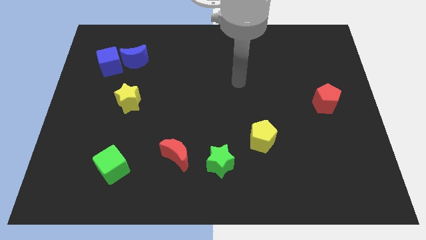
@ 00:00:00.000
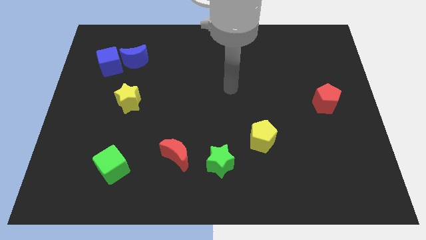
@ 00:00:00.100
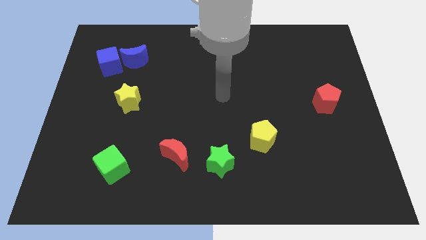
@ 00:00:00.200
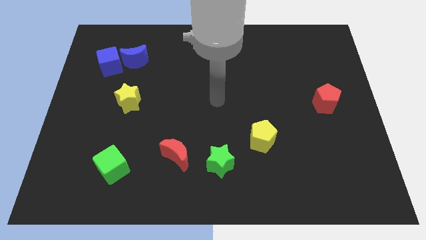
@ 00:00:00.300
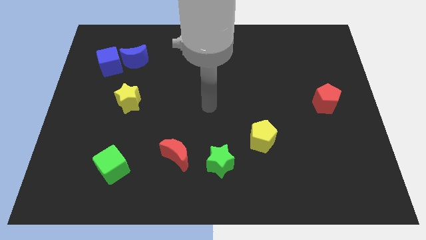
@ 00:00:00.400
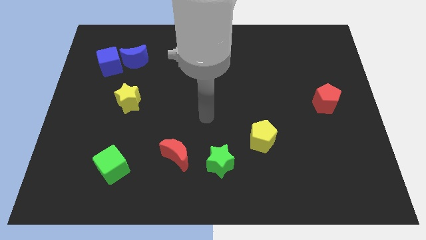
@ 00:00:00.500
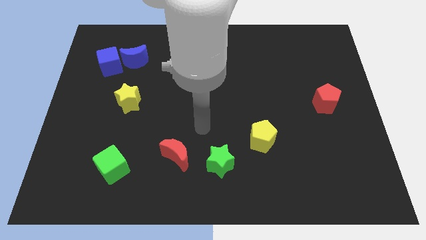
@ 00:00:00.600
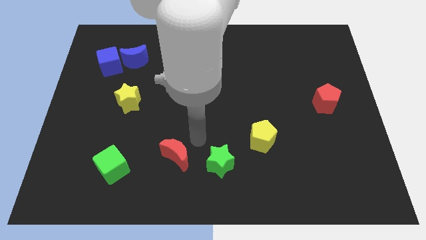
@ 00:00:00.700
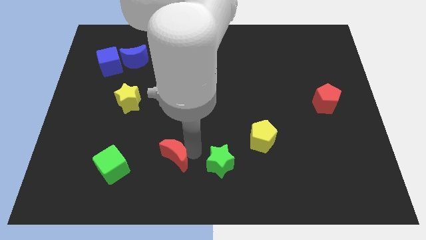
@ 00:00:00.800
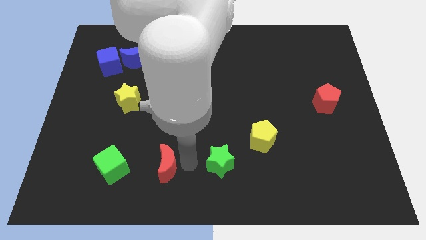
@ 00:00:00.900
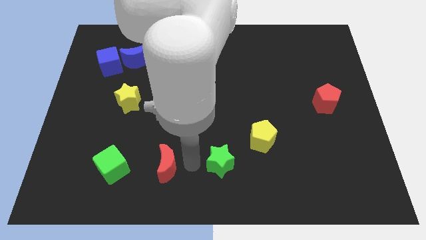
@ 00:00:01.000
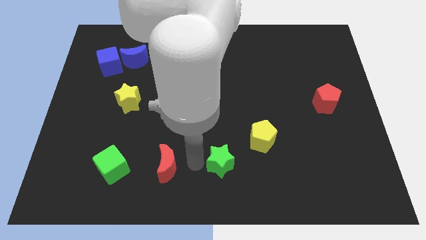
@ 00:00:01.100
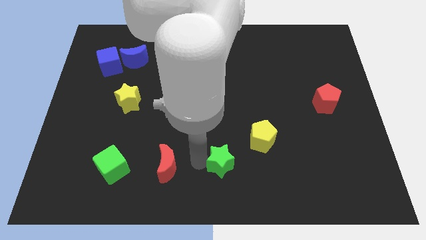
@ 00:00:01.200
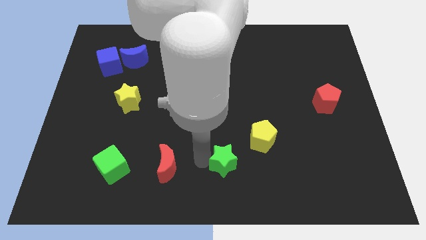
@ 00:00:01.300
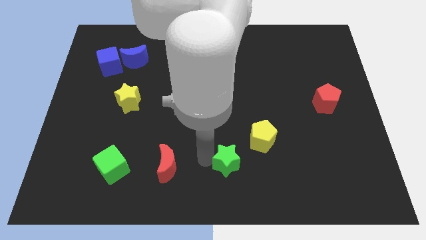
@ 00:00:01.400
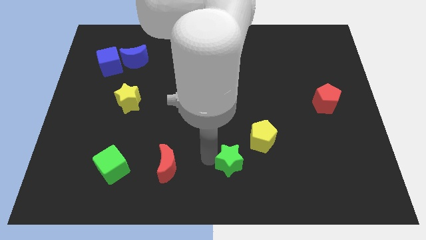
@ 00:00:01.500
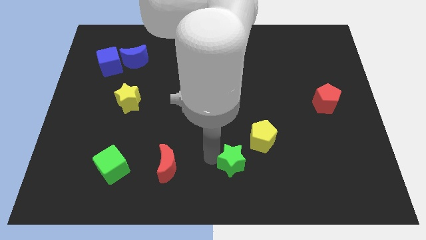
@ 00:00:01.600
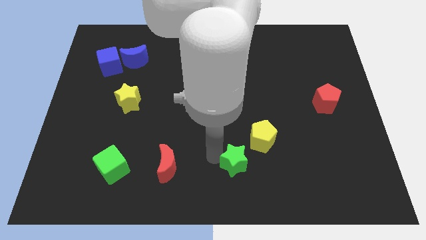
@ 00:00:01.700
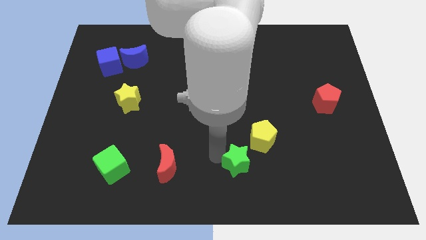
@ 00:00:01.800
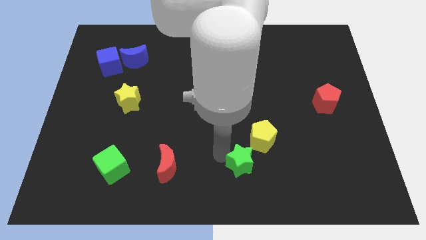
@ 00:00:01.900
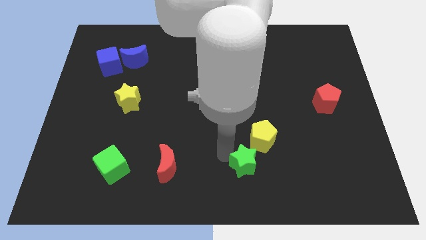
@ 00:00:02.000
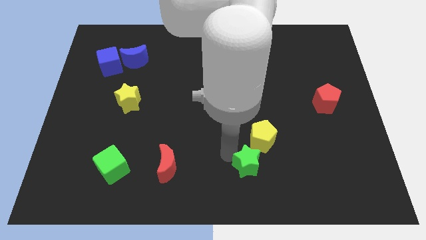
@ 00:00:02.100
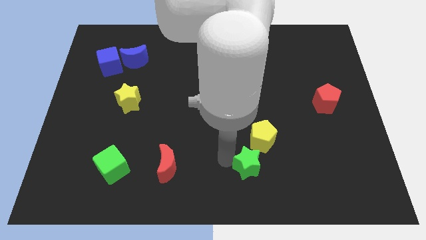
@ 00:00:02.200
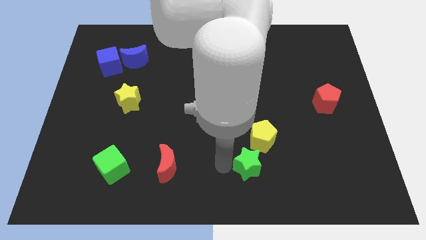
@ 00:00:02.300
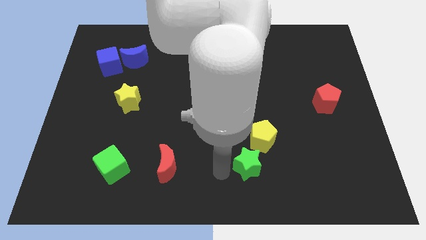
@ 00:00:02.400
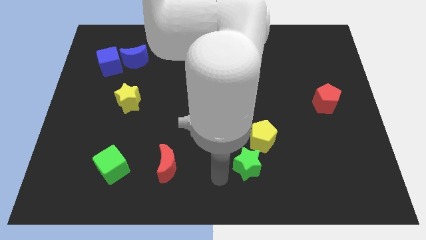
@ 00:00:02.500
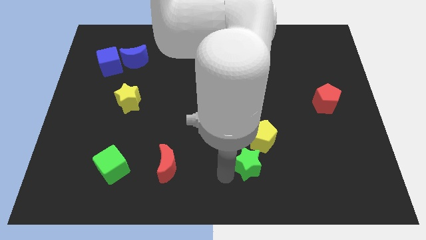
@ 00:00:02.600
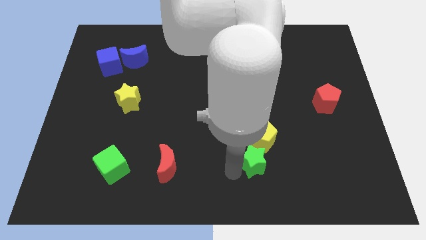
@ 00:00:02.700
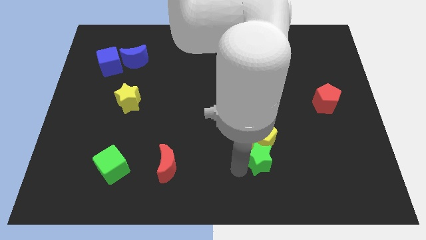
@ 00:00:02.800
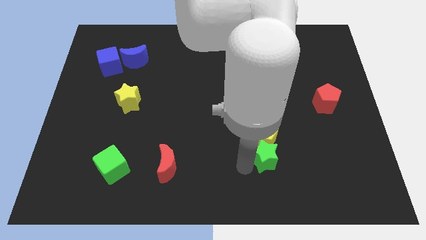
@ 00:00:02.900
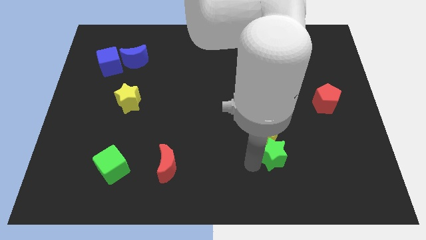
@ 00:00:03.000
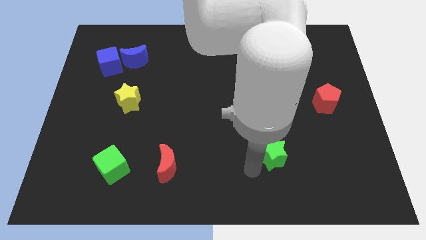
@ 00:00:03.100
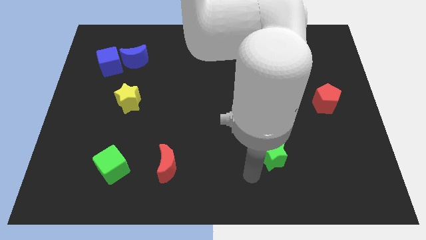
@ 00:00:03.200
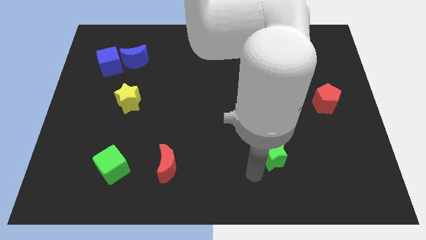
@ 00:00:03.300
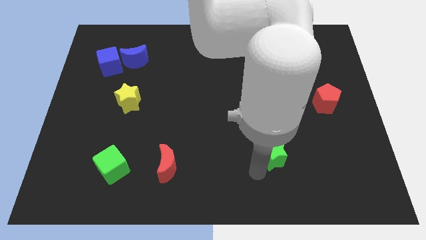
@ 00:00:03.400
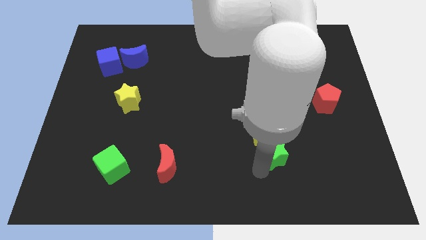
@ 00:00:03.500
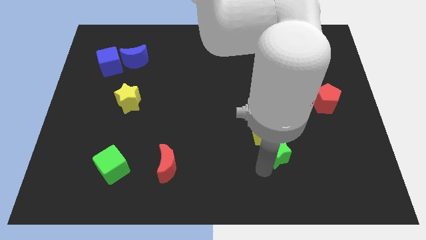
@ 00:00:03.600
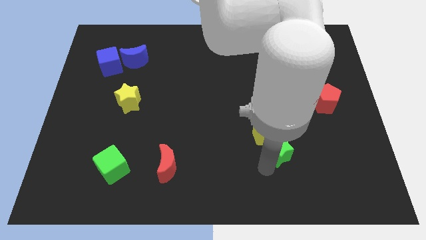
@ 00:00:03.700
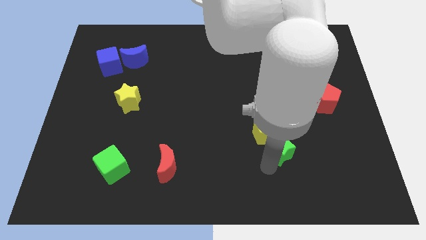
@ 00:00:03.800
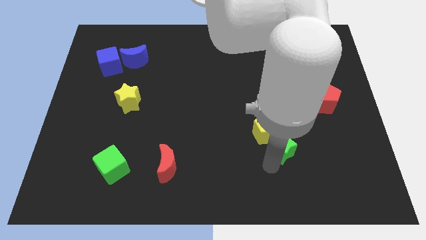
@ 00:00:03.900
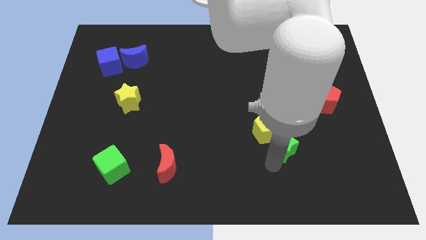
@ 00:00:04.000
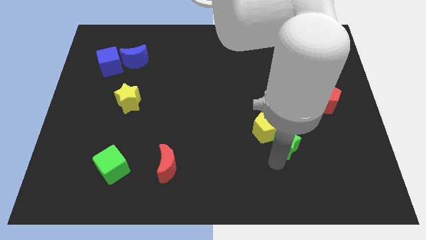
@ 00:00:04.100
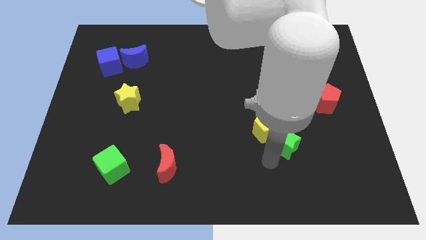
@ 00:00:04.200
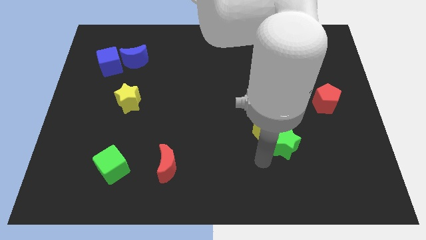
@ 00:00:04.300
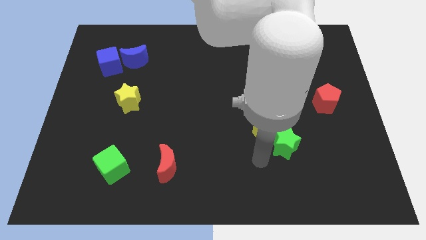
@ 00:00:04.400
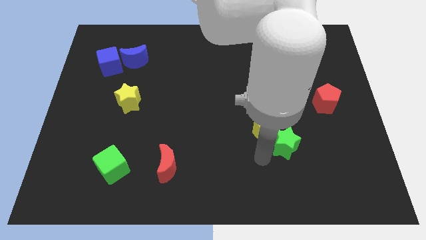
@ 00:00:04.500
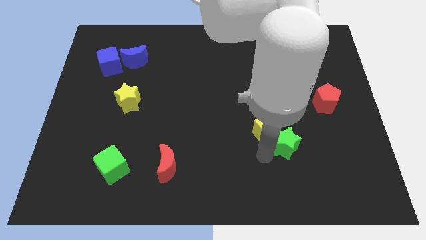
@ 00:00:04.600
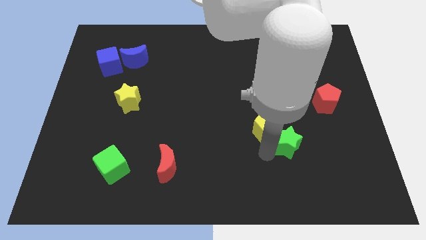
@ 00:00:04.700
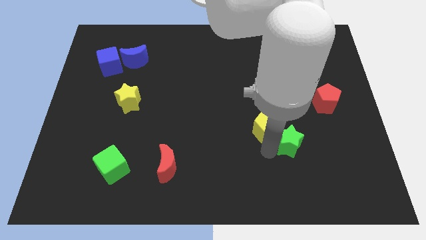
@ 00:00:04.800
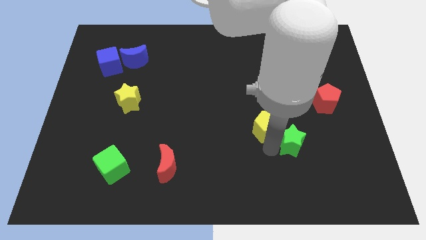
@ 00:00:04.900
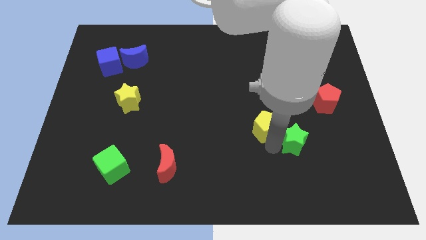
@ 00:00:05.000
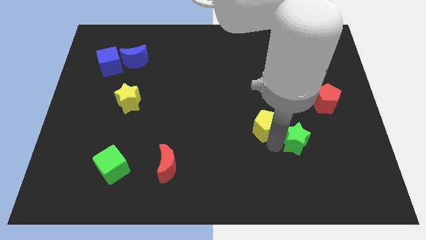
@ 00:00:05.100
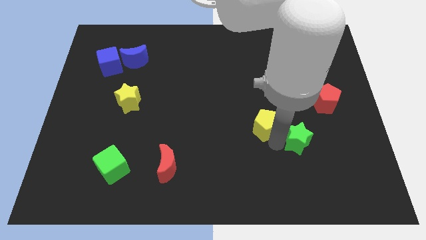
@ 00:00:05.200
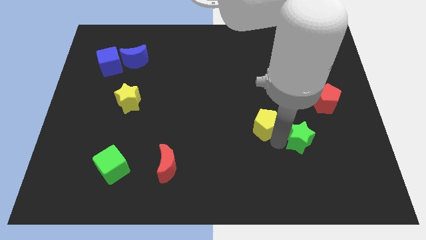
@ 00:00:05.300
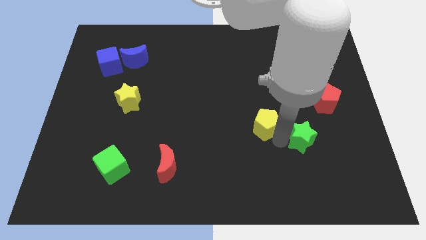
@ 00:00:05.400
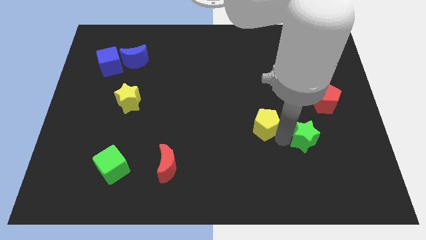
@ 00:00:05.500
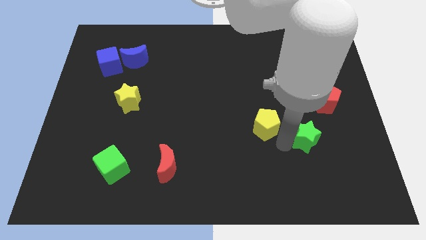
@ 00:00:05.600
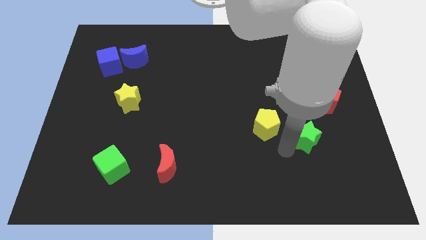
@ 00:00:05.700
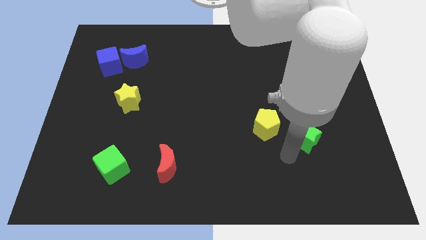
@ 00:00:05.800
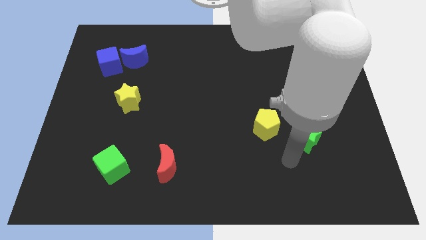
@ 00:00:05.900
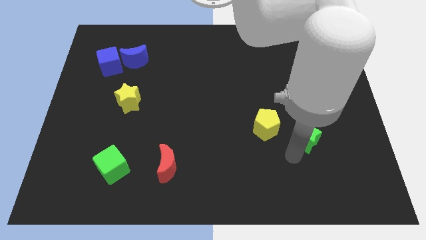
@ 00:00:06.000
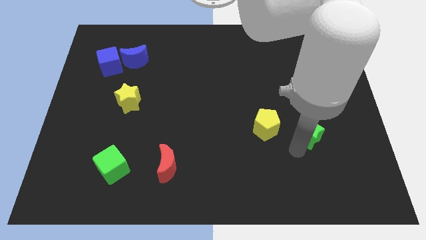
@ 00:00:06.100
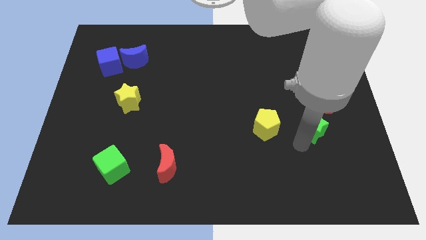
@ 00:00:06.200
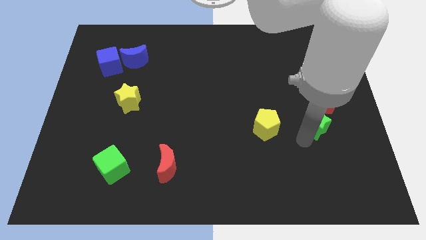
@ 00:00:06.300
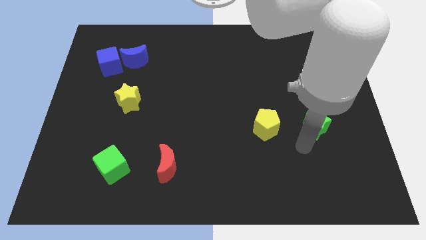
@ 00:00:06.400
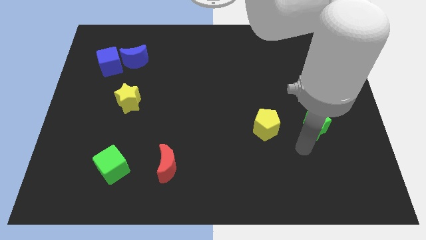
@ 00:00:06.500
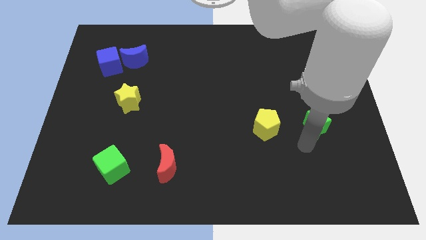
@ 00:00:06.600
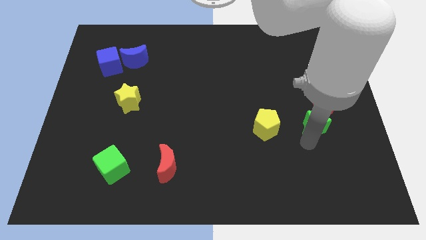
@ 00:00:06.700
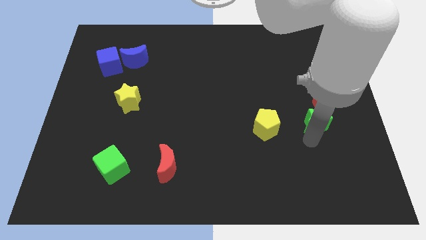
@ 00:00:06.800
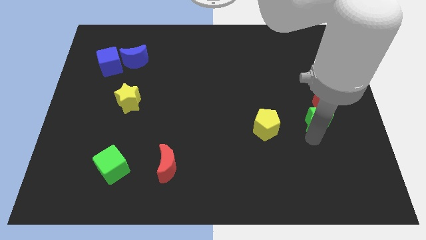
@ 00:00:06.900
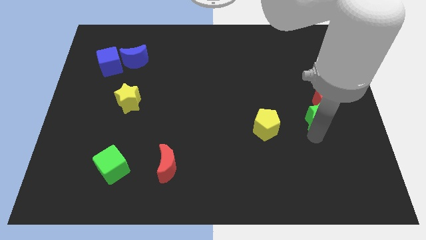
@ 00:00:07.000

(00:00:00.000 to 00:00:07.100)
move the green star to the red pentagon
